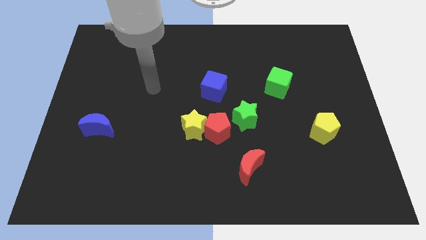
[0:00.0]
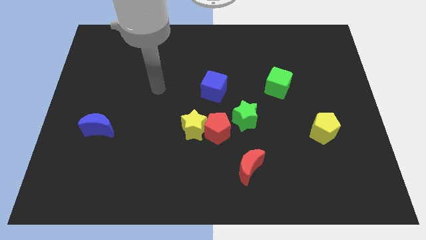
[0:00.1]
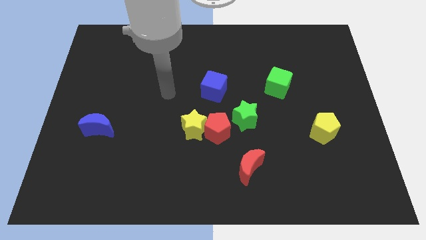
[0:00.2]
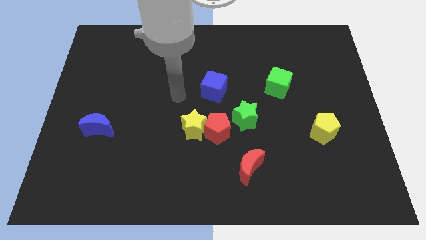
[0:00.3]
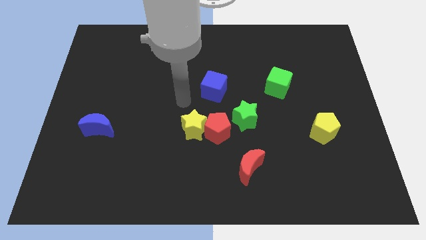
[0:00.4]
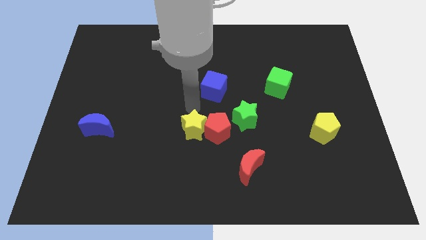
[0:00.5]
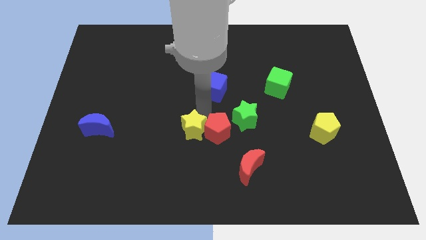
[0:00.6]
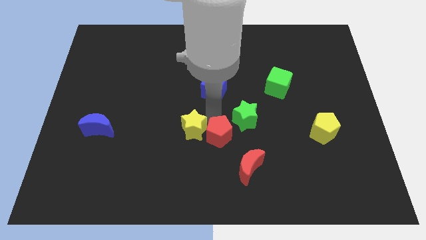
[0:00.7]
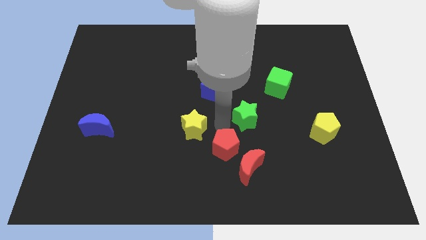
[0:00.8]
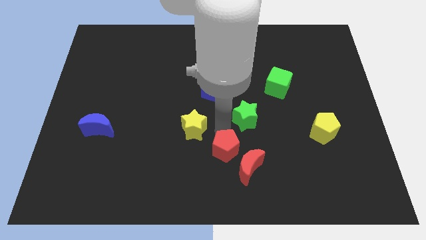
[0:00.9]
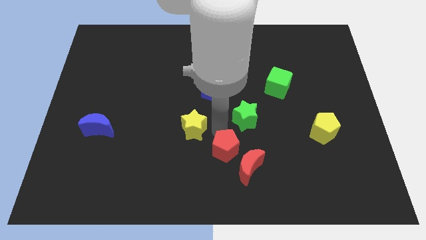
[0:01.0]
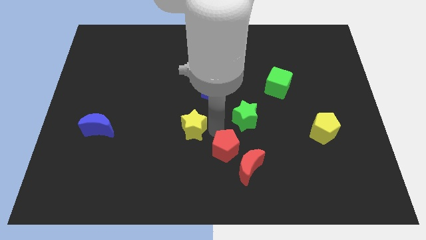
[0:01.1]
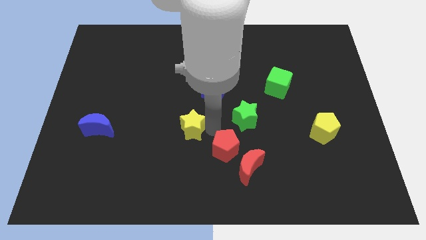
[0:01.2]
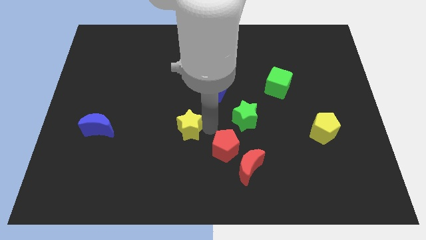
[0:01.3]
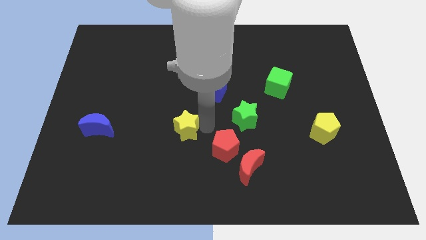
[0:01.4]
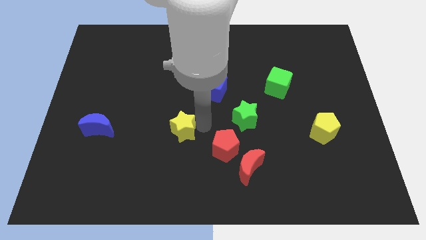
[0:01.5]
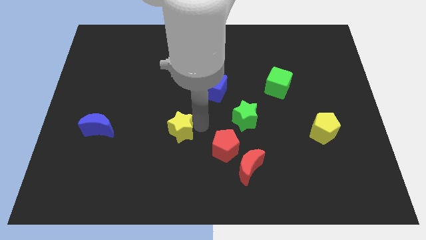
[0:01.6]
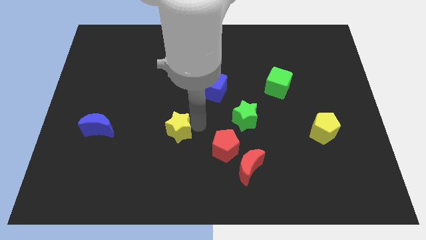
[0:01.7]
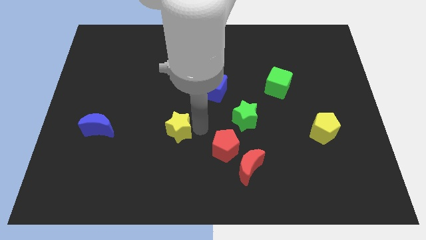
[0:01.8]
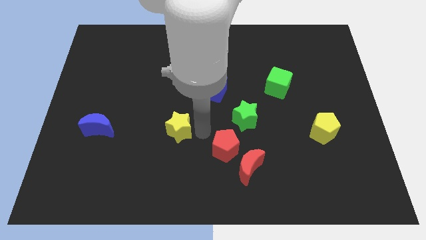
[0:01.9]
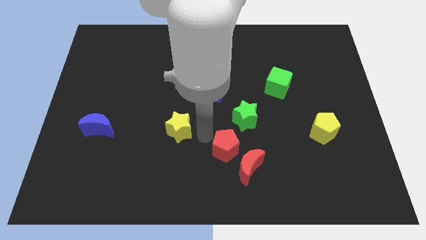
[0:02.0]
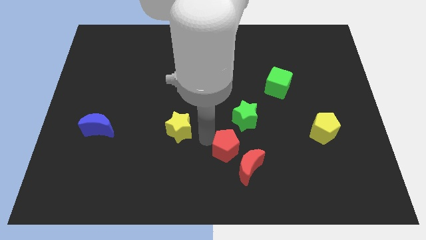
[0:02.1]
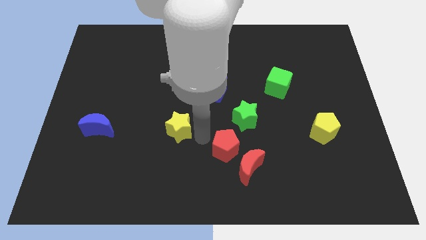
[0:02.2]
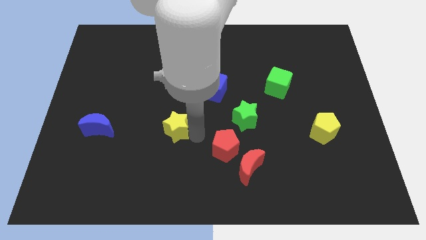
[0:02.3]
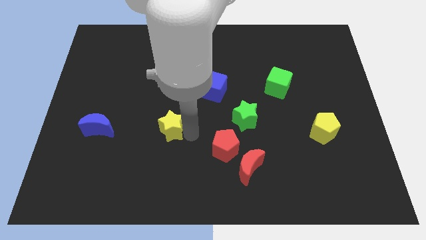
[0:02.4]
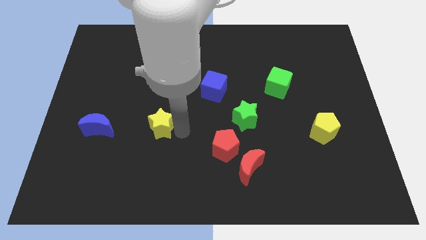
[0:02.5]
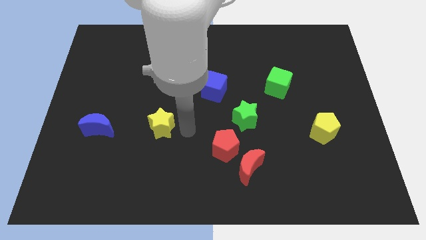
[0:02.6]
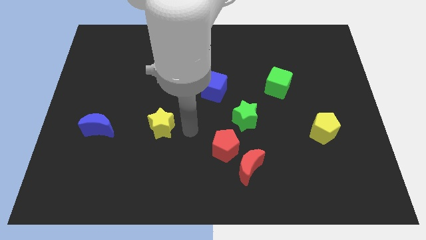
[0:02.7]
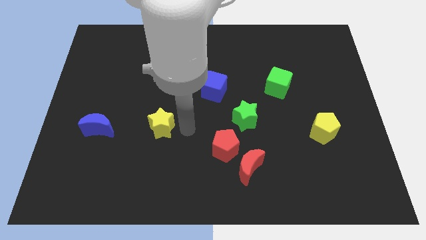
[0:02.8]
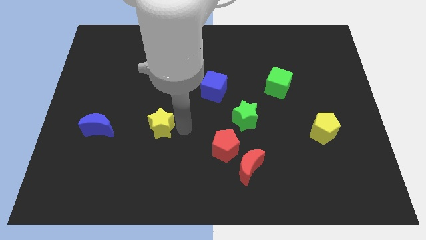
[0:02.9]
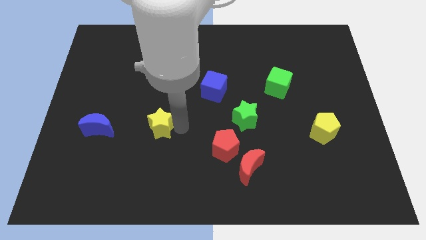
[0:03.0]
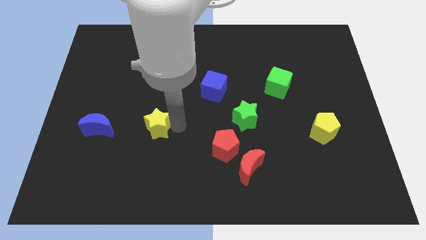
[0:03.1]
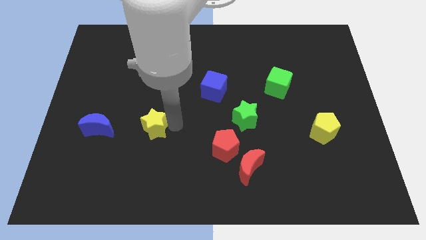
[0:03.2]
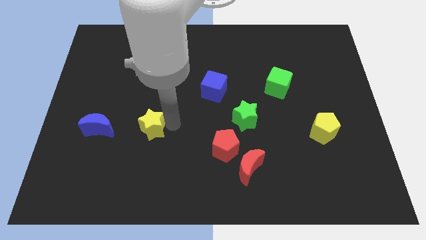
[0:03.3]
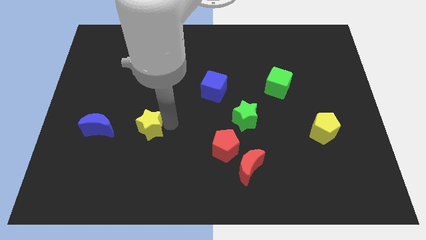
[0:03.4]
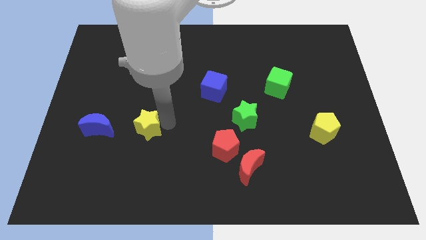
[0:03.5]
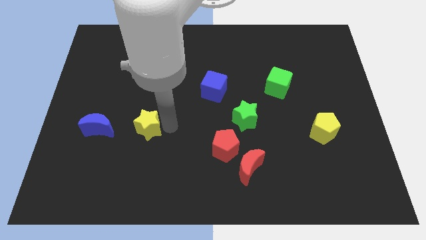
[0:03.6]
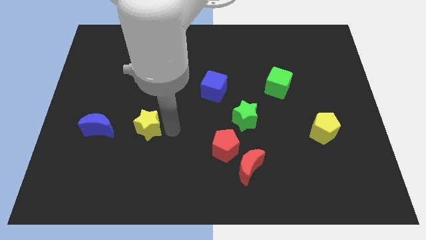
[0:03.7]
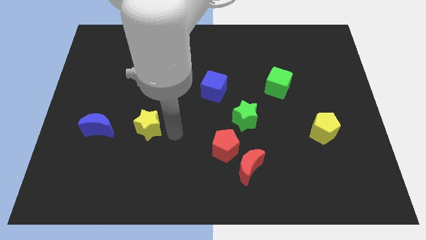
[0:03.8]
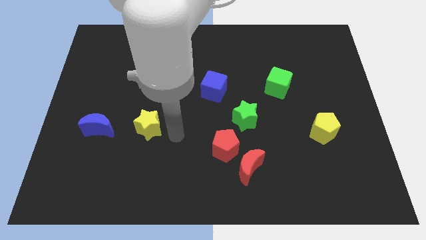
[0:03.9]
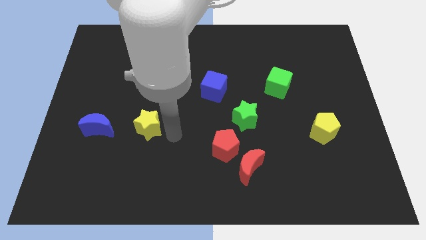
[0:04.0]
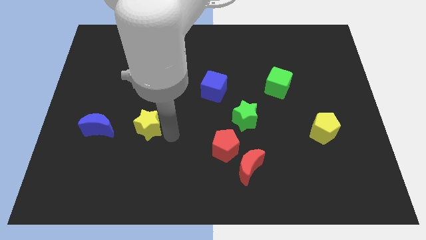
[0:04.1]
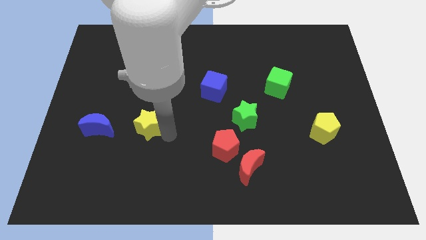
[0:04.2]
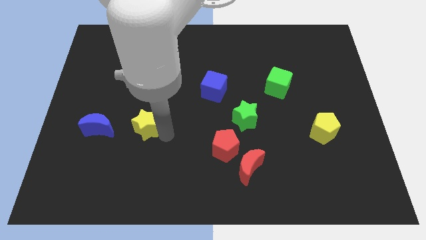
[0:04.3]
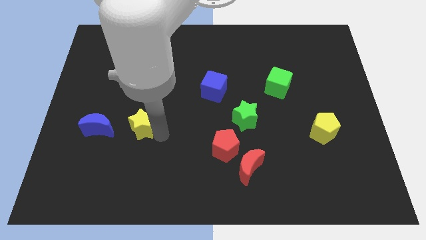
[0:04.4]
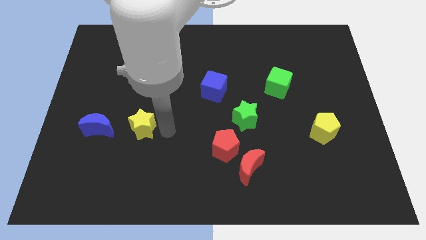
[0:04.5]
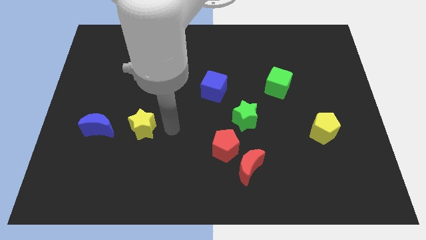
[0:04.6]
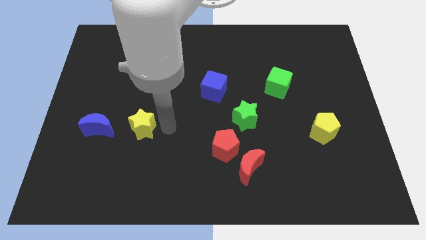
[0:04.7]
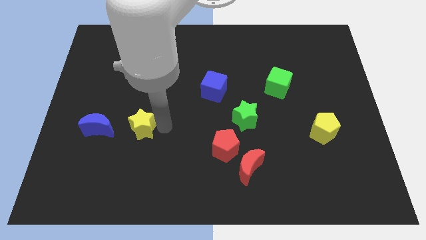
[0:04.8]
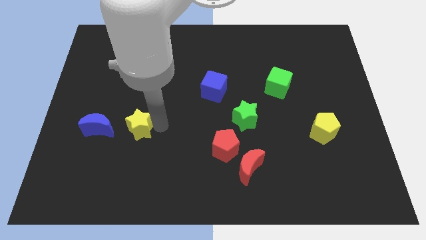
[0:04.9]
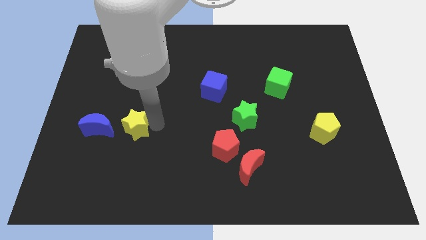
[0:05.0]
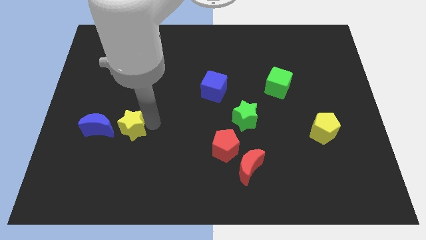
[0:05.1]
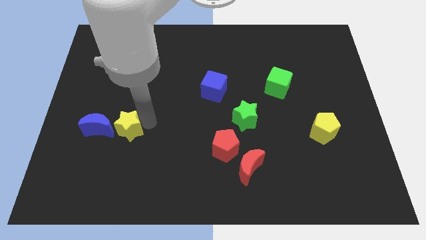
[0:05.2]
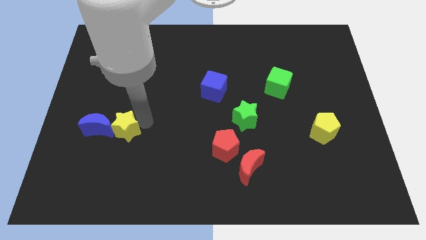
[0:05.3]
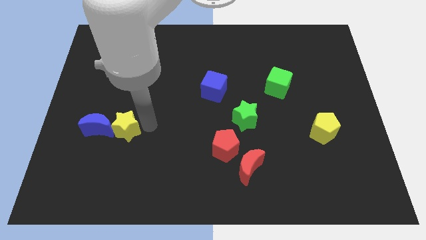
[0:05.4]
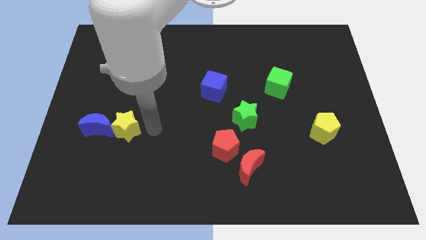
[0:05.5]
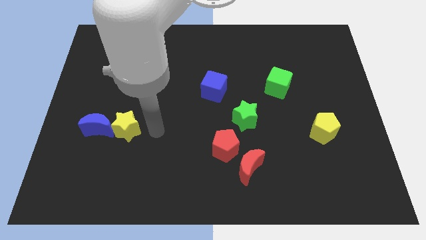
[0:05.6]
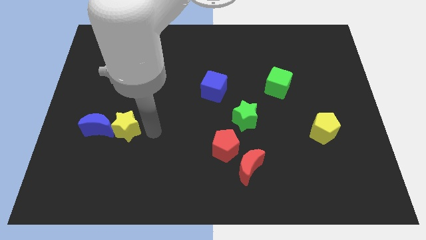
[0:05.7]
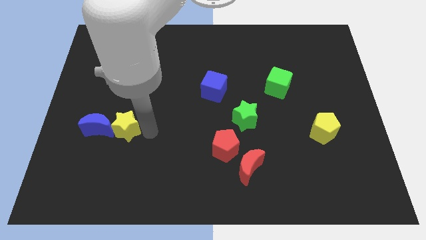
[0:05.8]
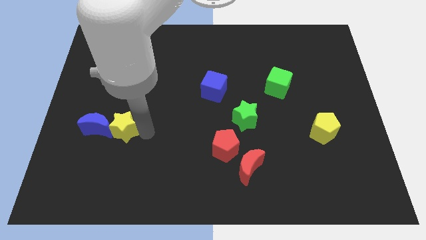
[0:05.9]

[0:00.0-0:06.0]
move the yellow star next to the blue moon

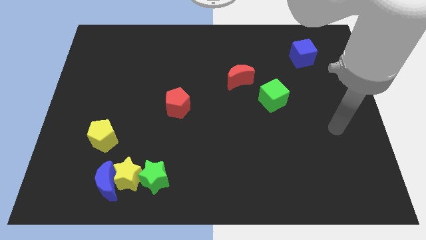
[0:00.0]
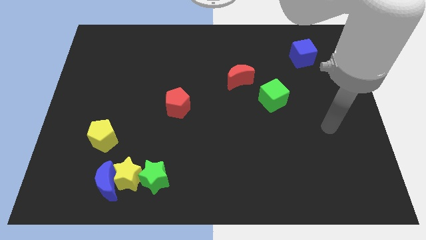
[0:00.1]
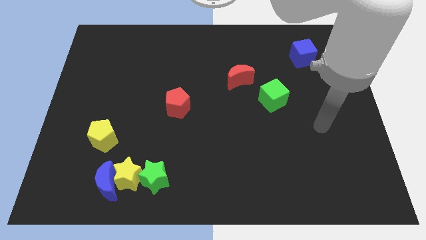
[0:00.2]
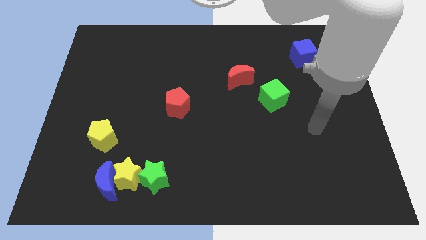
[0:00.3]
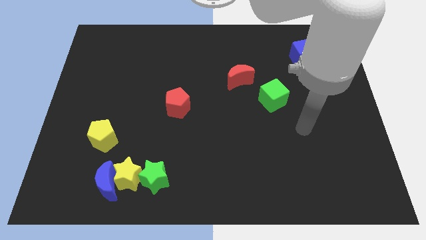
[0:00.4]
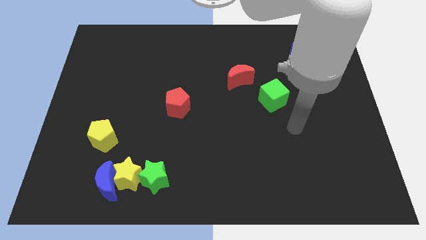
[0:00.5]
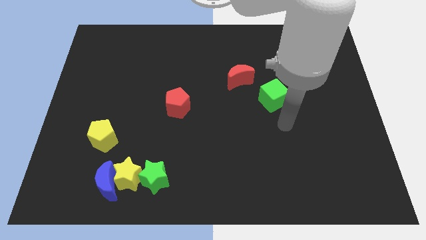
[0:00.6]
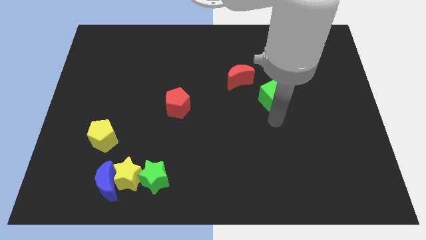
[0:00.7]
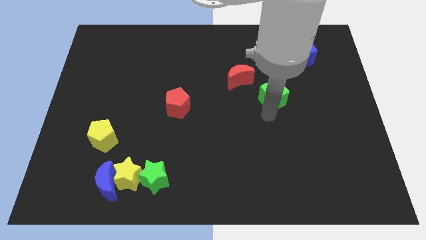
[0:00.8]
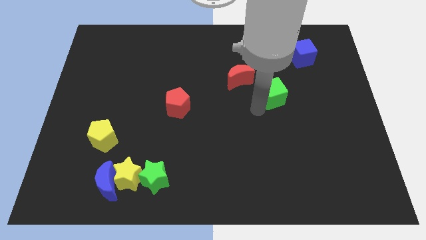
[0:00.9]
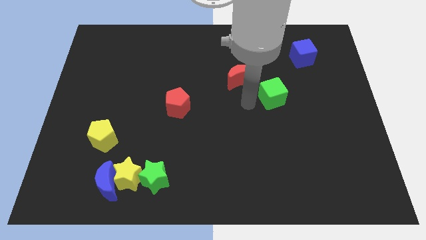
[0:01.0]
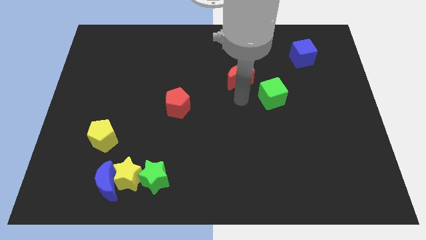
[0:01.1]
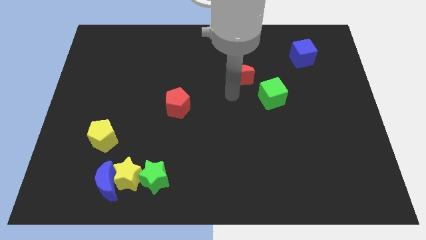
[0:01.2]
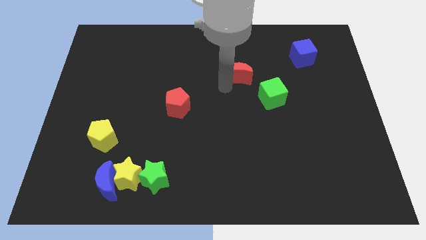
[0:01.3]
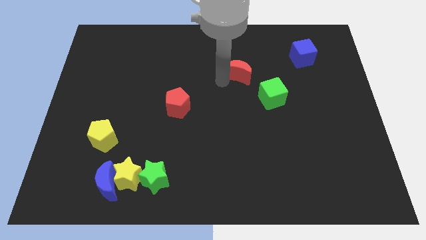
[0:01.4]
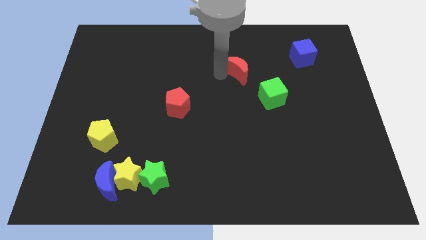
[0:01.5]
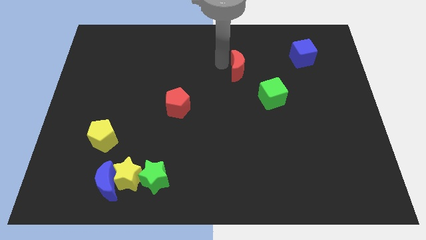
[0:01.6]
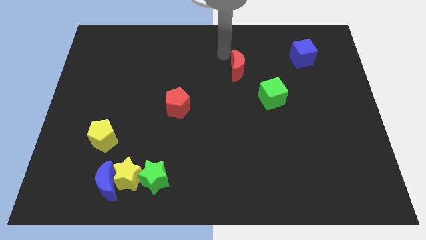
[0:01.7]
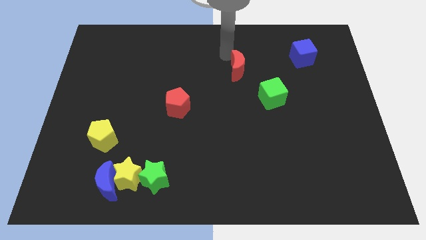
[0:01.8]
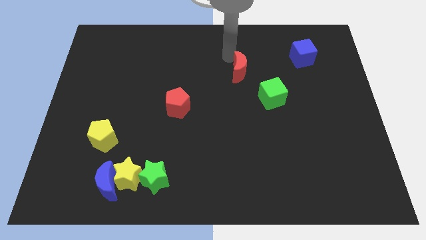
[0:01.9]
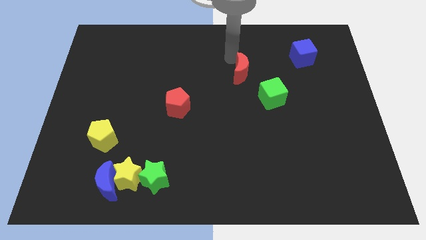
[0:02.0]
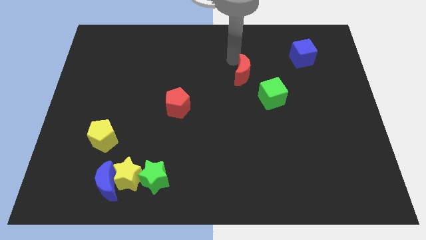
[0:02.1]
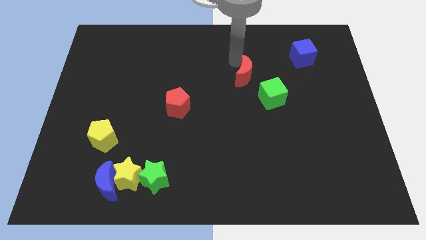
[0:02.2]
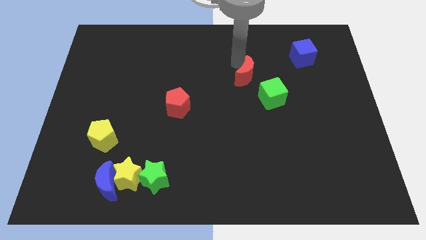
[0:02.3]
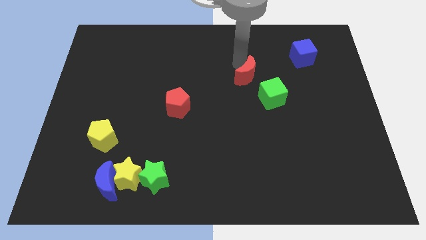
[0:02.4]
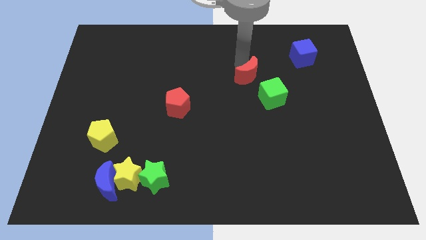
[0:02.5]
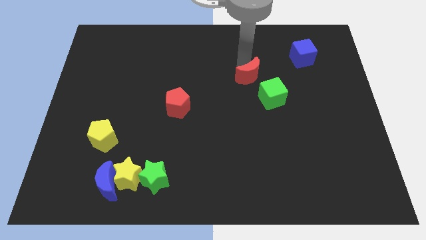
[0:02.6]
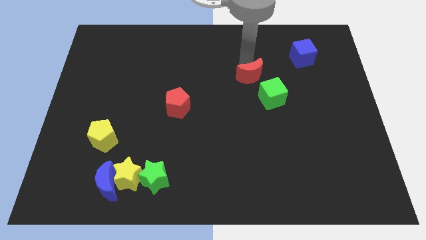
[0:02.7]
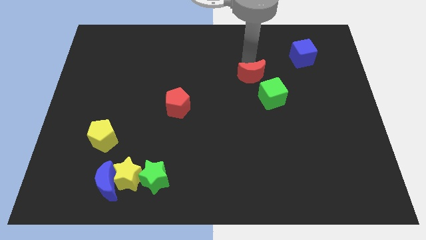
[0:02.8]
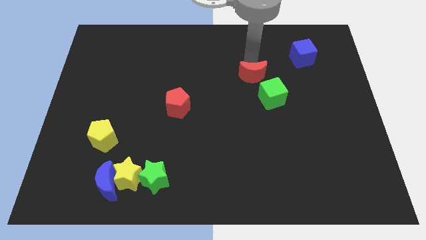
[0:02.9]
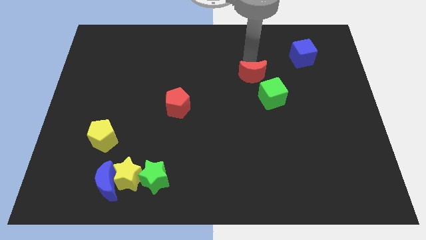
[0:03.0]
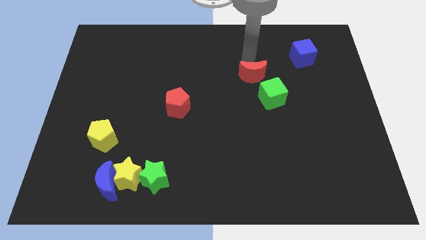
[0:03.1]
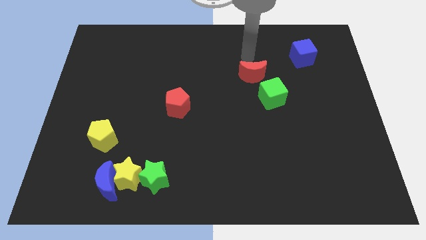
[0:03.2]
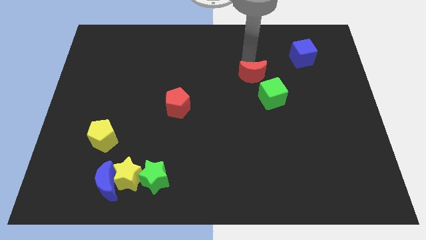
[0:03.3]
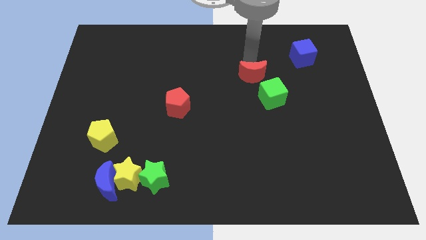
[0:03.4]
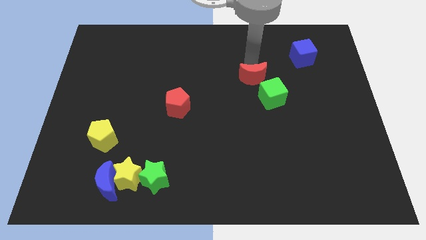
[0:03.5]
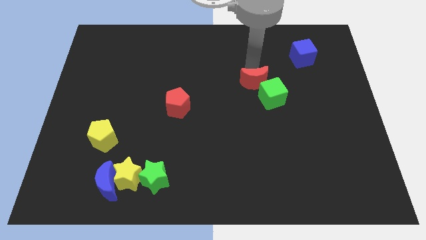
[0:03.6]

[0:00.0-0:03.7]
slide the red moon close to the green cube
